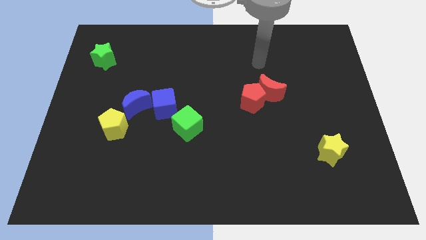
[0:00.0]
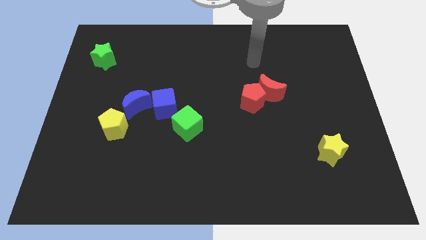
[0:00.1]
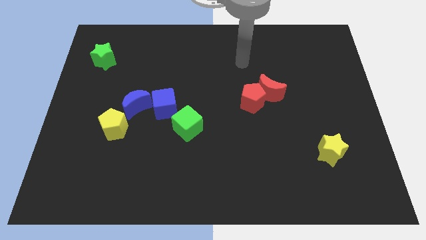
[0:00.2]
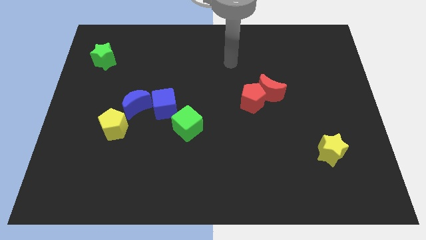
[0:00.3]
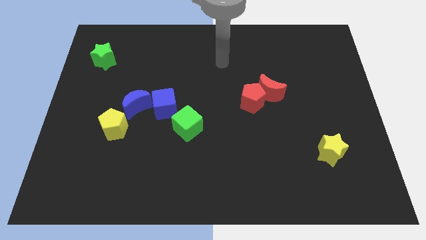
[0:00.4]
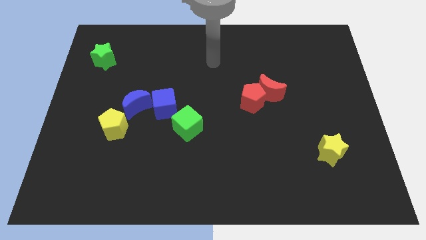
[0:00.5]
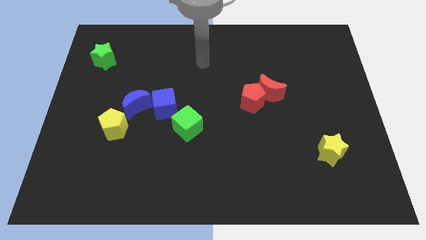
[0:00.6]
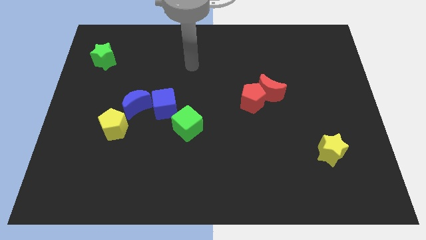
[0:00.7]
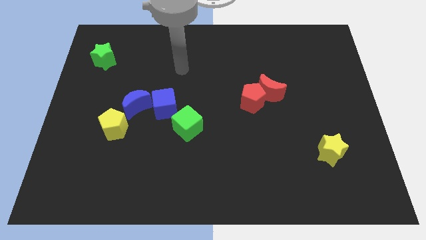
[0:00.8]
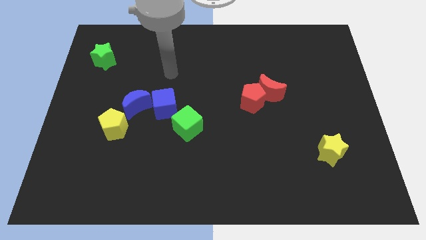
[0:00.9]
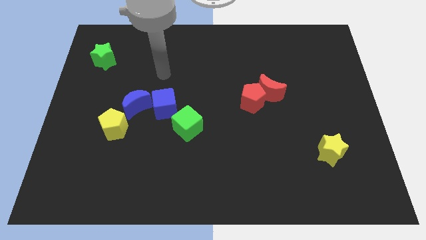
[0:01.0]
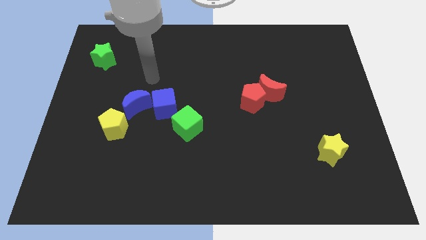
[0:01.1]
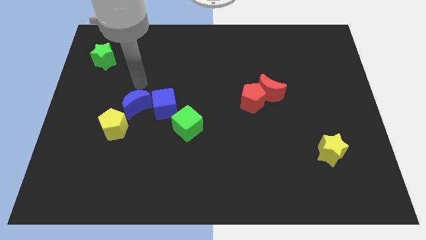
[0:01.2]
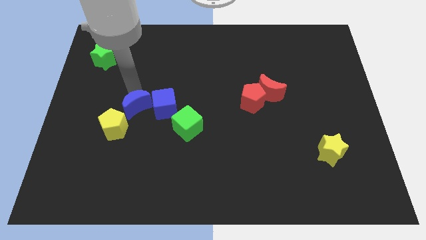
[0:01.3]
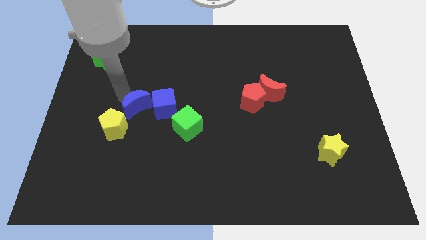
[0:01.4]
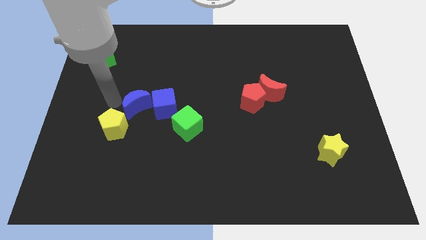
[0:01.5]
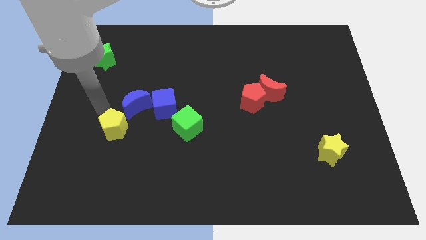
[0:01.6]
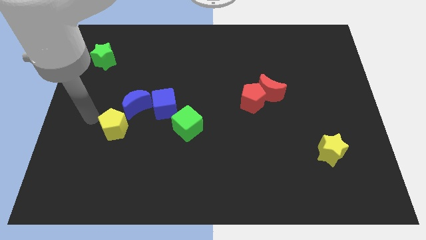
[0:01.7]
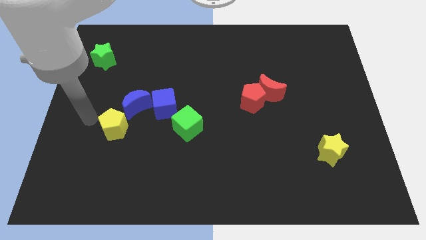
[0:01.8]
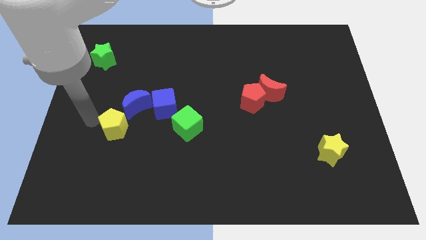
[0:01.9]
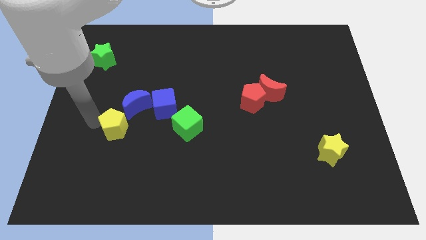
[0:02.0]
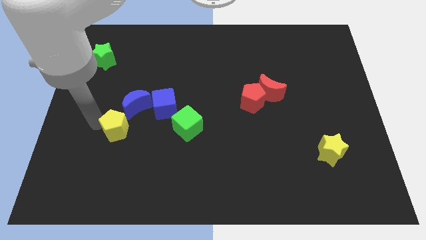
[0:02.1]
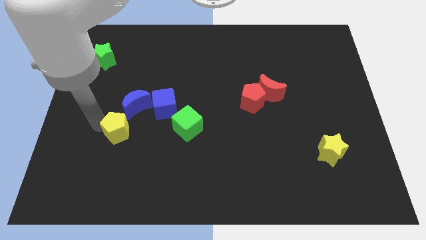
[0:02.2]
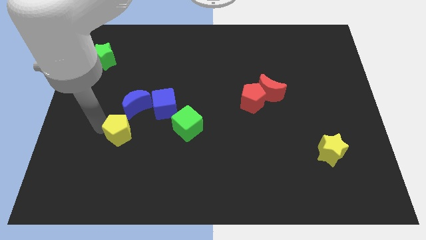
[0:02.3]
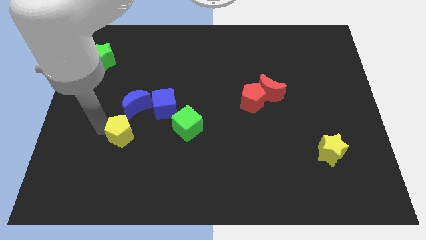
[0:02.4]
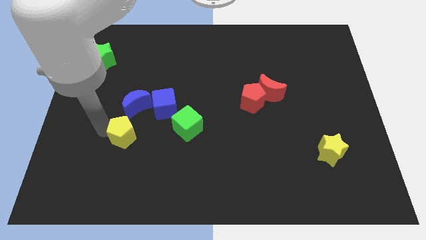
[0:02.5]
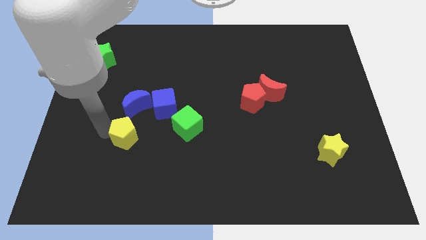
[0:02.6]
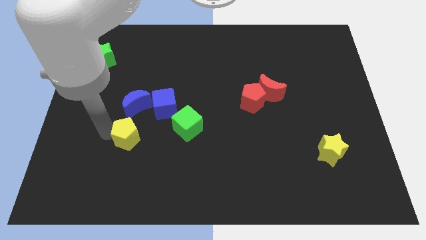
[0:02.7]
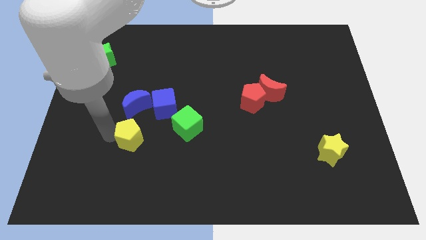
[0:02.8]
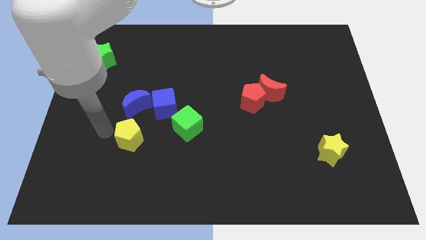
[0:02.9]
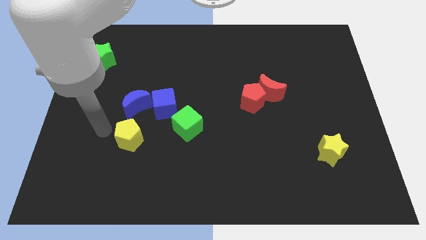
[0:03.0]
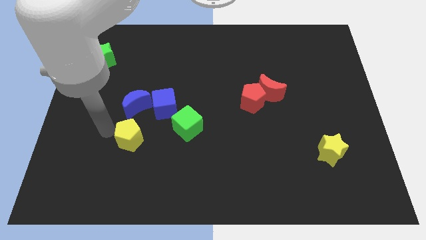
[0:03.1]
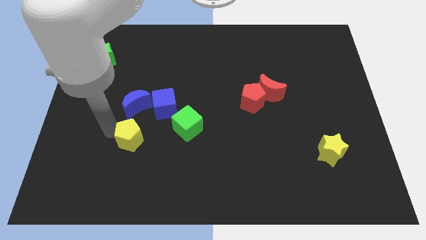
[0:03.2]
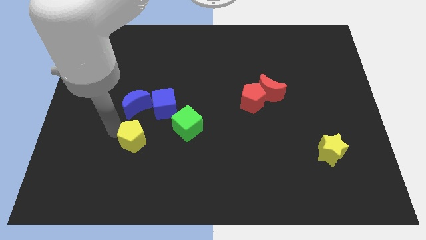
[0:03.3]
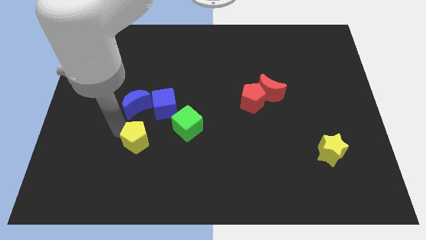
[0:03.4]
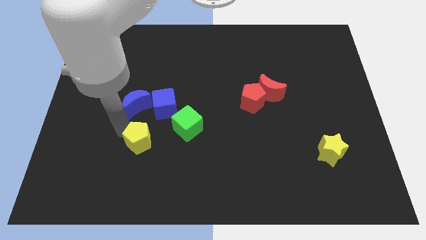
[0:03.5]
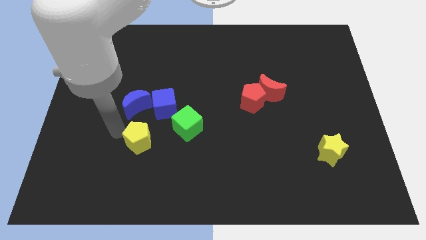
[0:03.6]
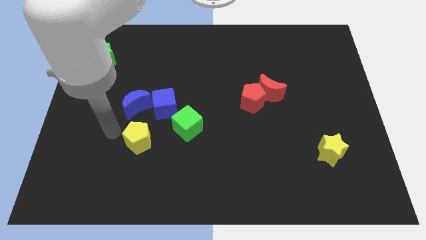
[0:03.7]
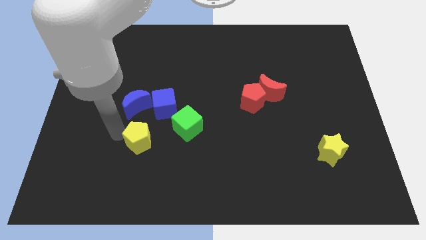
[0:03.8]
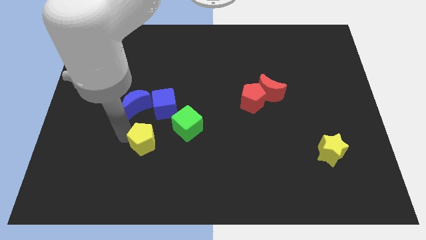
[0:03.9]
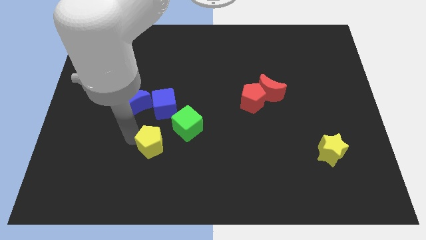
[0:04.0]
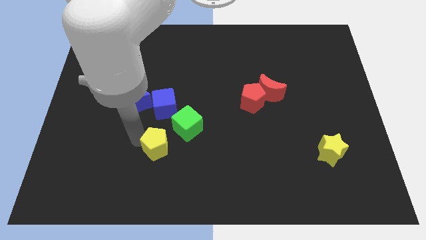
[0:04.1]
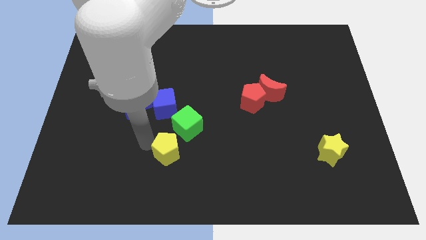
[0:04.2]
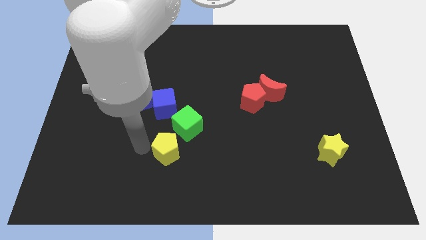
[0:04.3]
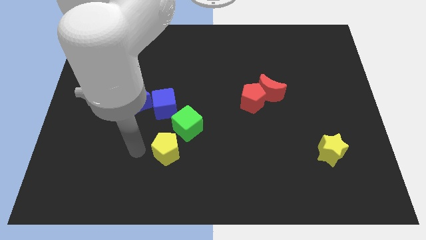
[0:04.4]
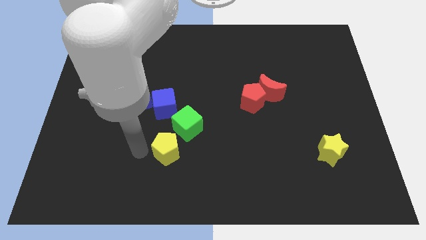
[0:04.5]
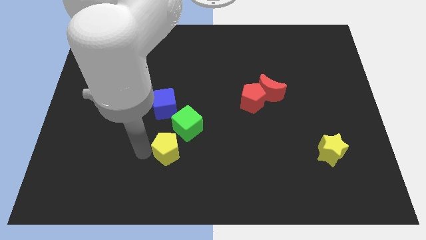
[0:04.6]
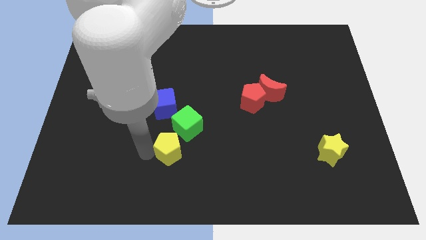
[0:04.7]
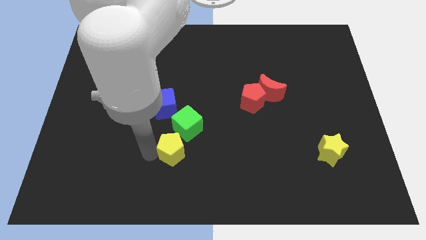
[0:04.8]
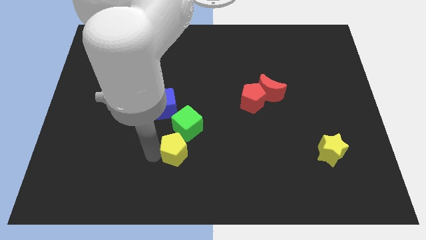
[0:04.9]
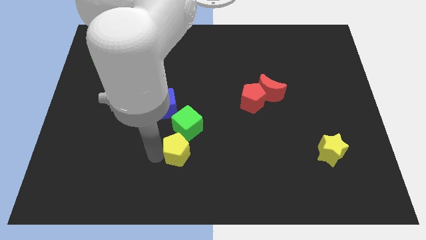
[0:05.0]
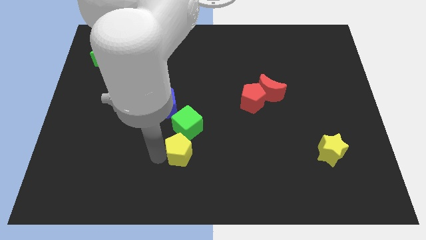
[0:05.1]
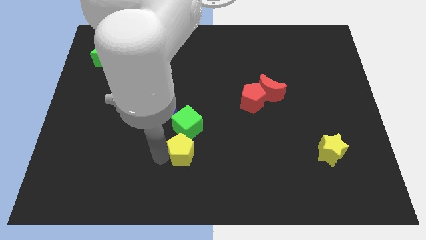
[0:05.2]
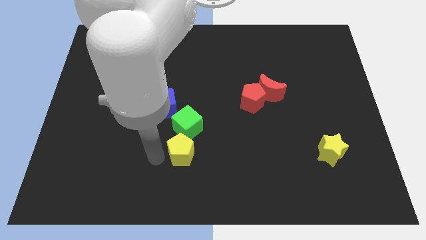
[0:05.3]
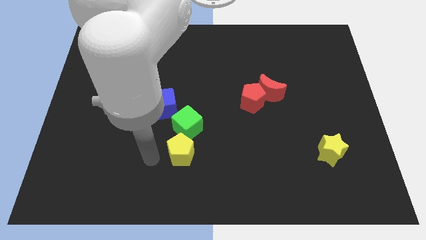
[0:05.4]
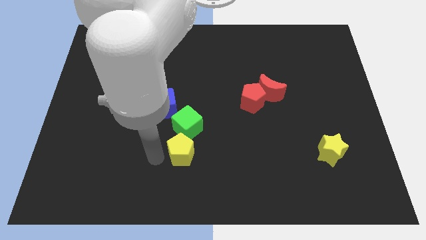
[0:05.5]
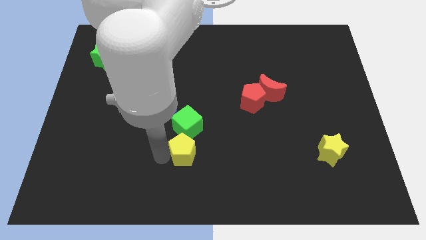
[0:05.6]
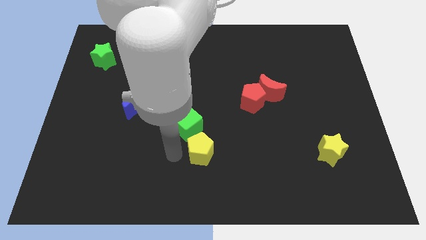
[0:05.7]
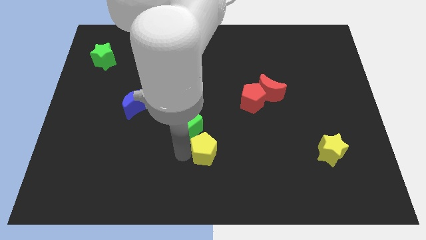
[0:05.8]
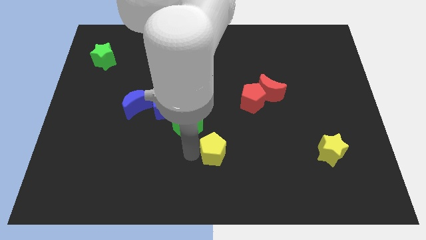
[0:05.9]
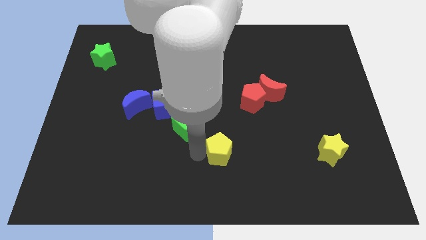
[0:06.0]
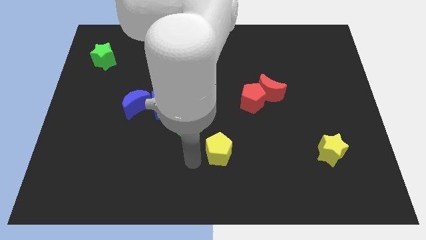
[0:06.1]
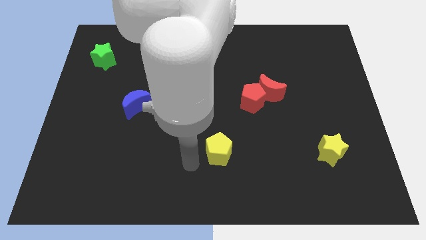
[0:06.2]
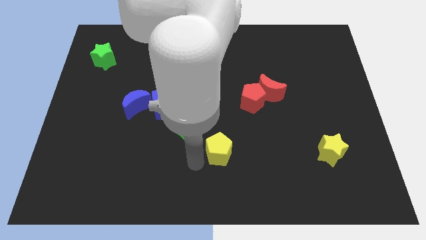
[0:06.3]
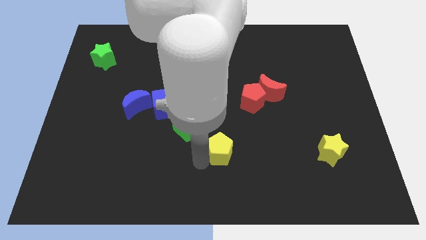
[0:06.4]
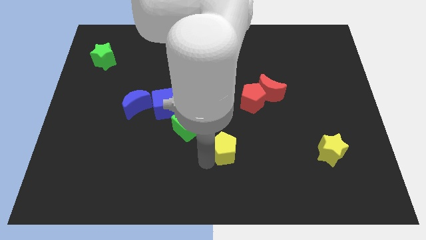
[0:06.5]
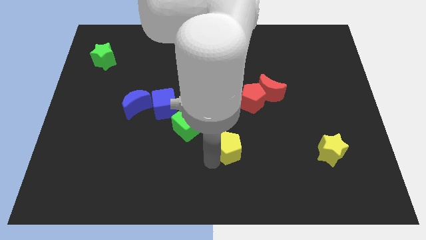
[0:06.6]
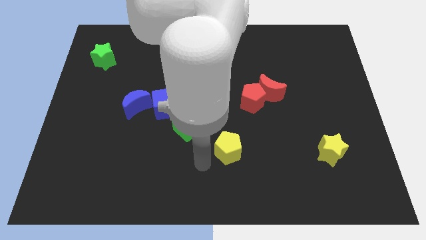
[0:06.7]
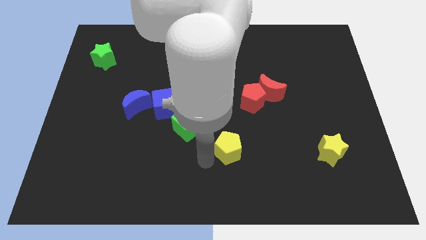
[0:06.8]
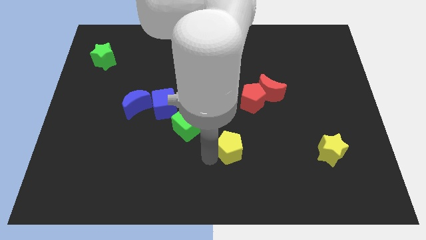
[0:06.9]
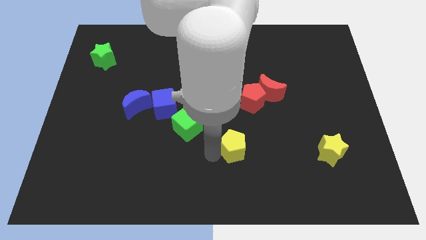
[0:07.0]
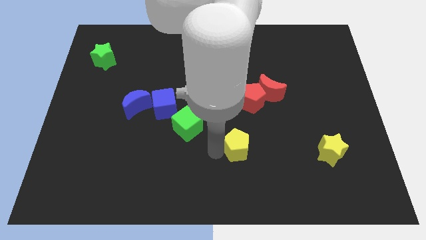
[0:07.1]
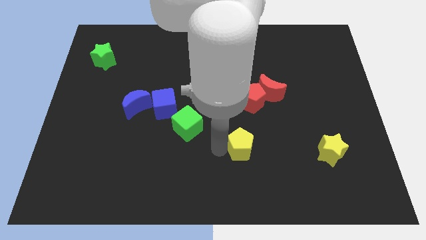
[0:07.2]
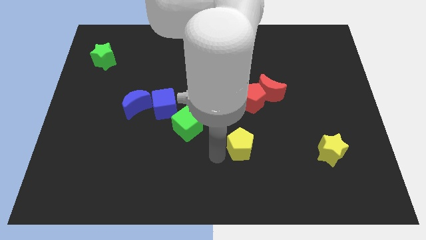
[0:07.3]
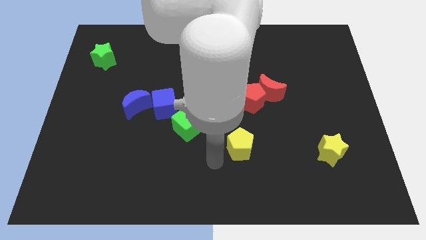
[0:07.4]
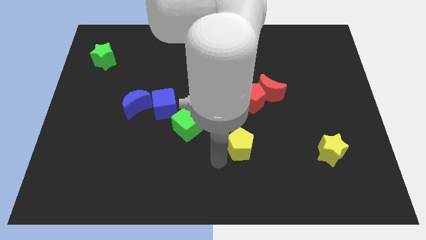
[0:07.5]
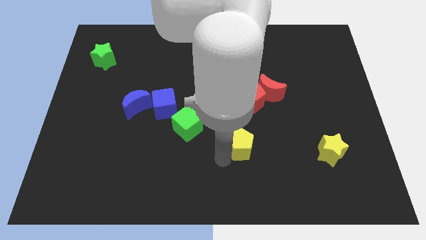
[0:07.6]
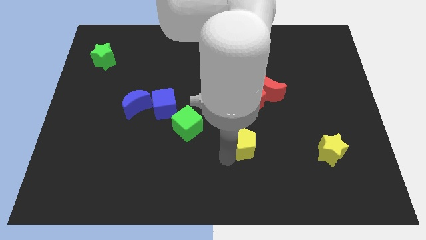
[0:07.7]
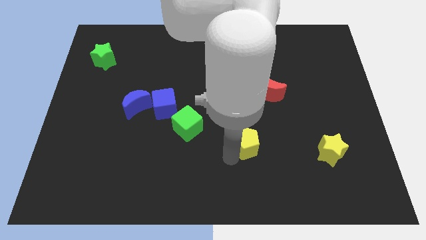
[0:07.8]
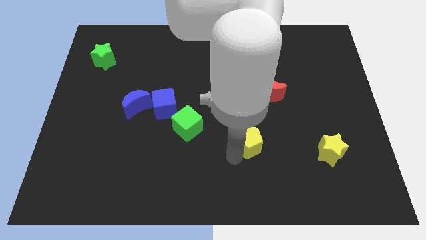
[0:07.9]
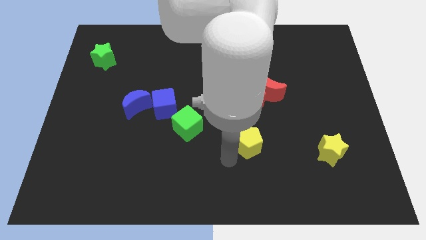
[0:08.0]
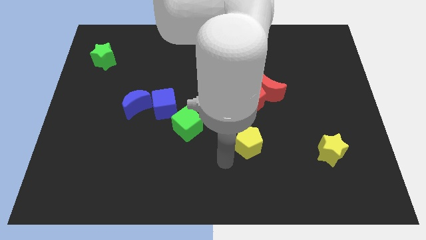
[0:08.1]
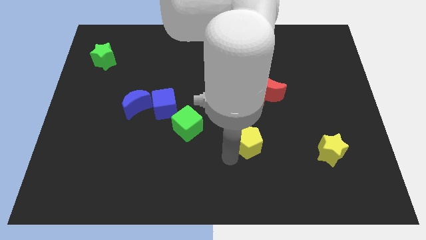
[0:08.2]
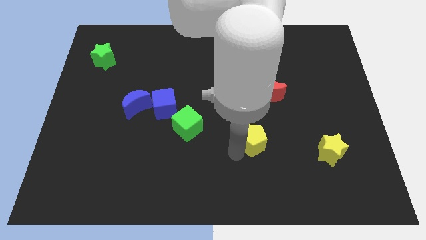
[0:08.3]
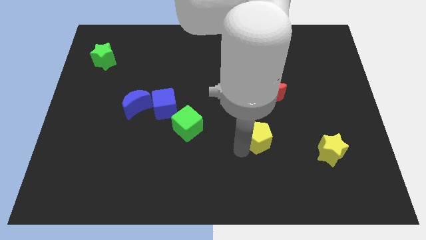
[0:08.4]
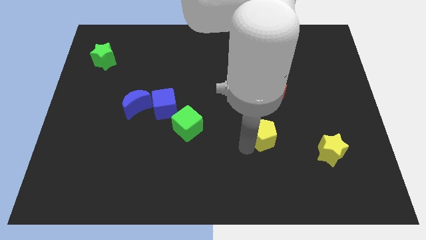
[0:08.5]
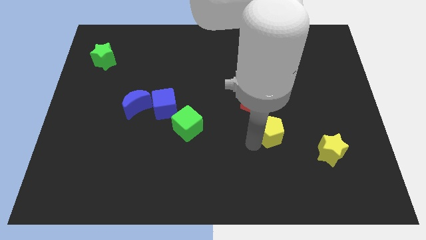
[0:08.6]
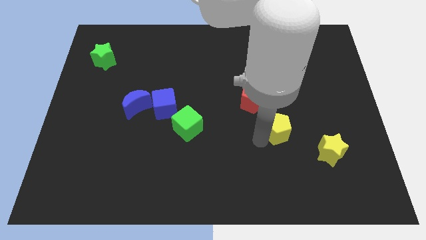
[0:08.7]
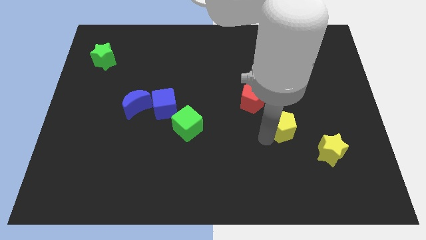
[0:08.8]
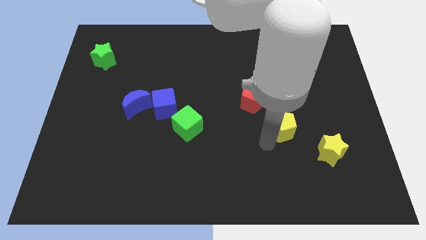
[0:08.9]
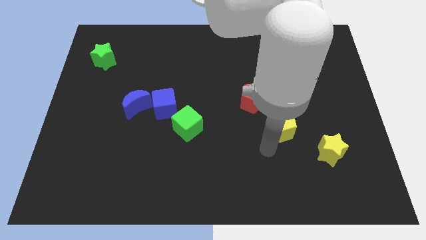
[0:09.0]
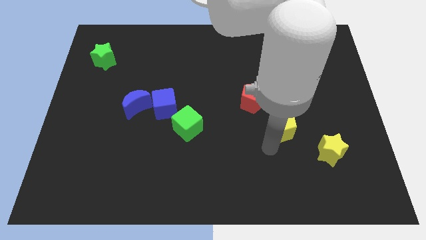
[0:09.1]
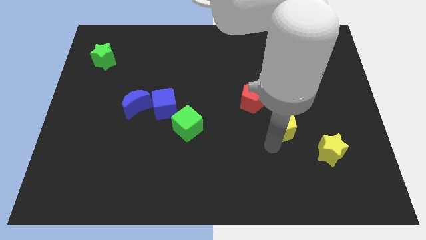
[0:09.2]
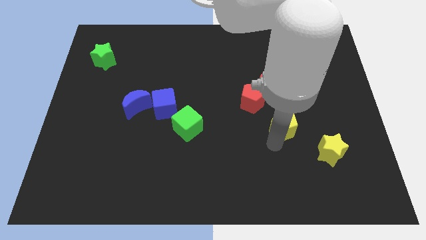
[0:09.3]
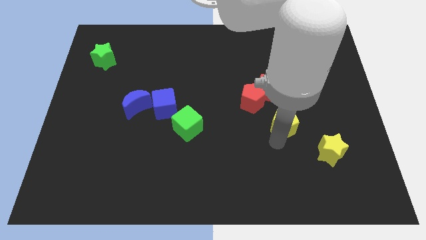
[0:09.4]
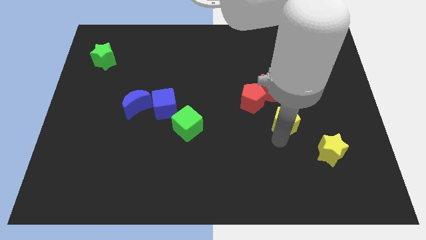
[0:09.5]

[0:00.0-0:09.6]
push the yellow pentagon to the bottom right of the red moon
